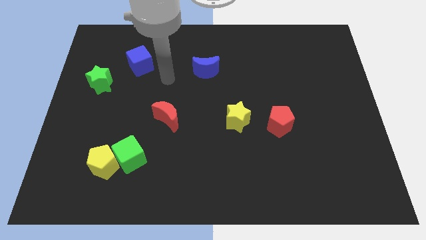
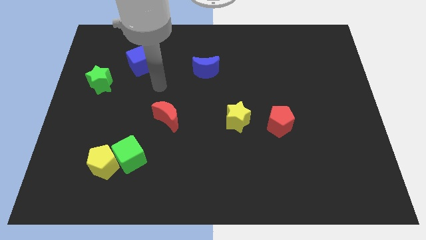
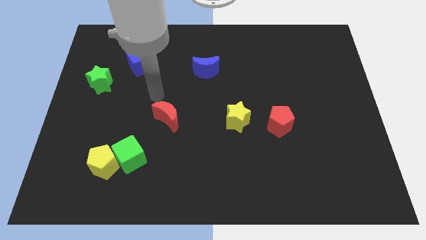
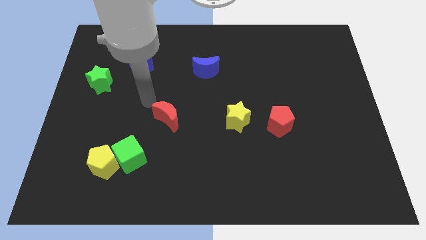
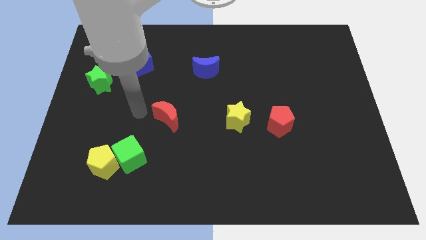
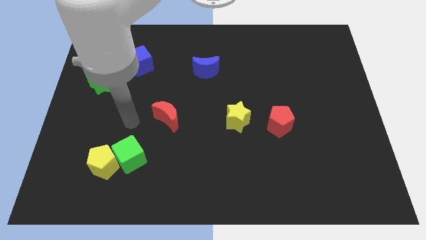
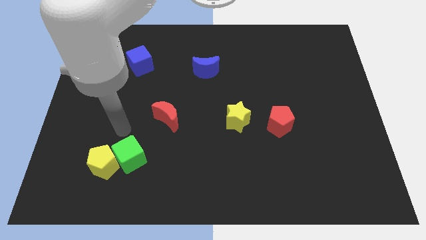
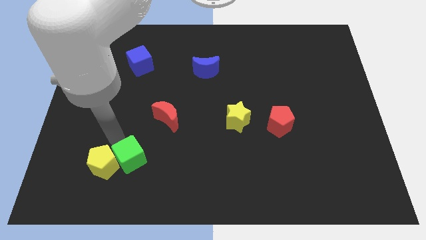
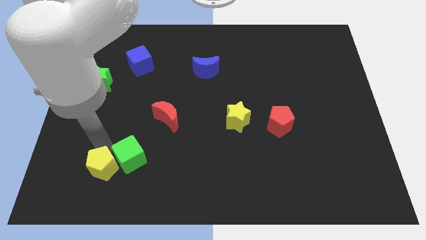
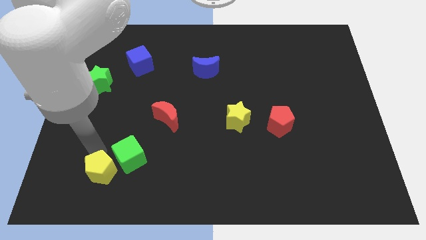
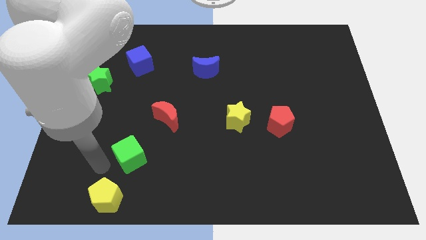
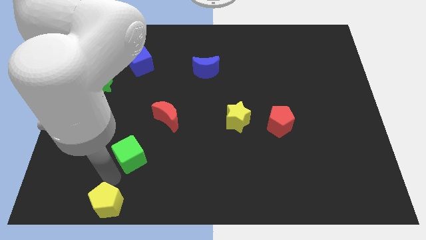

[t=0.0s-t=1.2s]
separate the green cube from the yellow pentagon

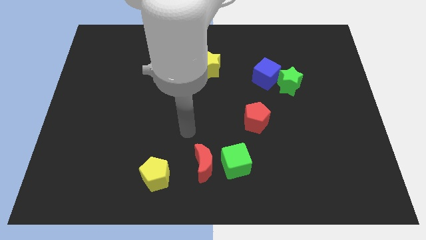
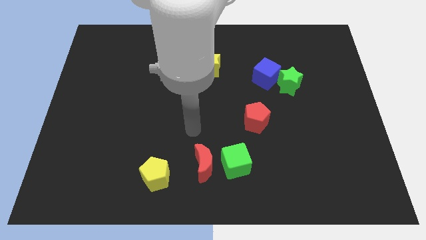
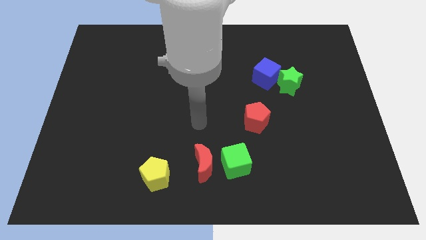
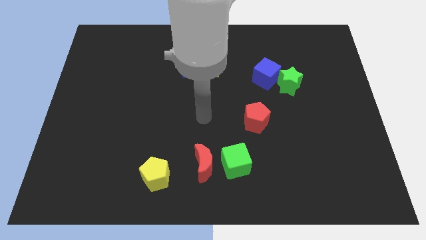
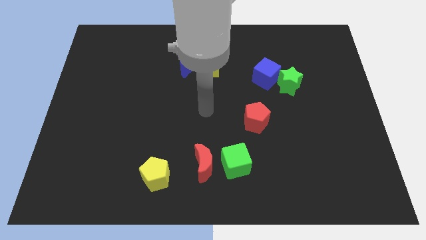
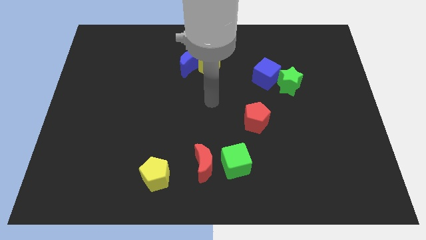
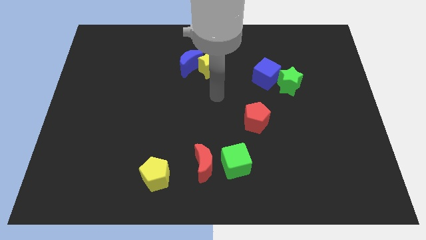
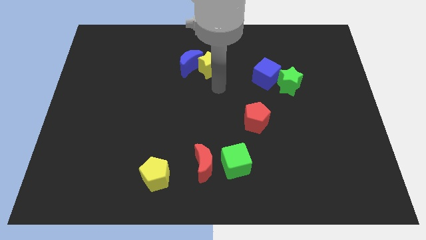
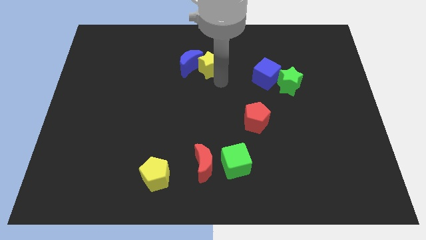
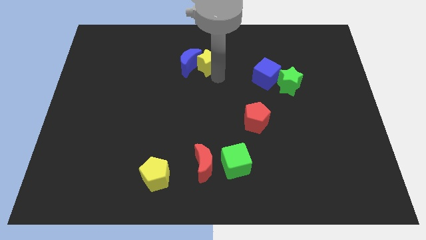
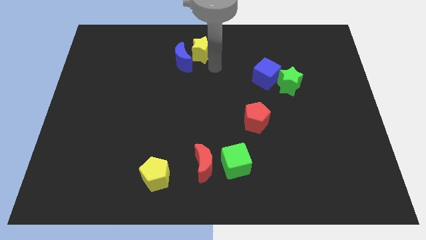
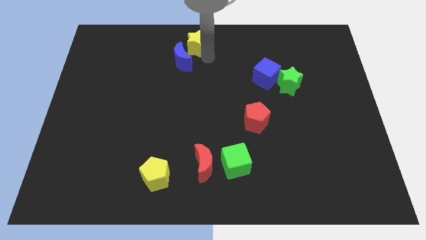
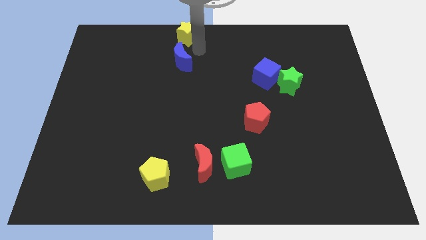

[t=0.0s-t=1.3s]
separate the blue moon from the yellow star

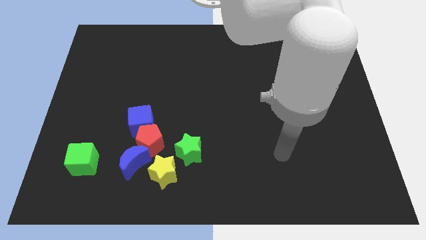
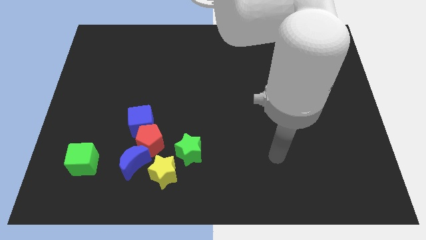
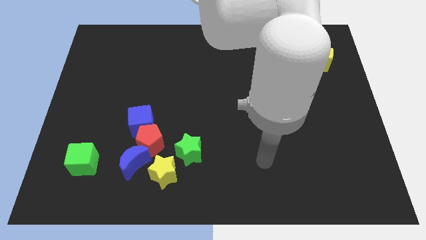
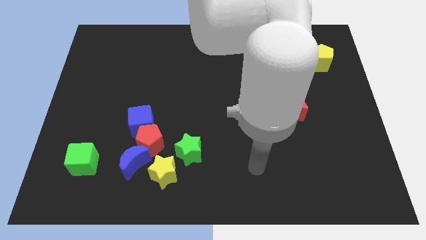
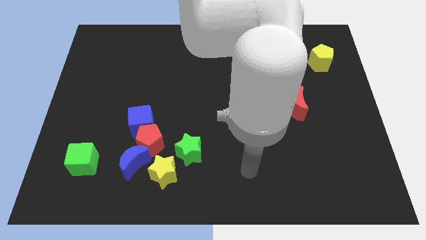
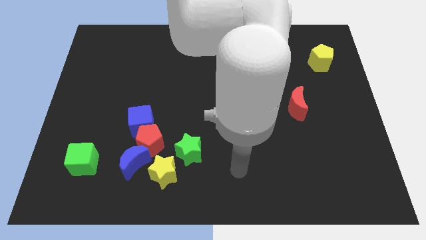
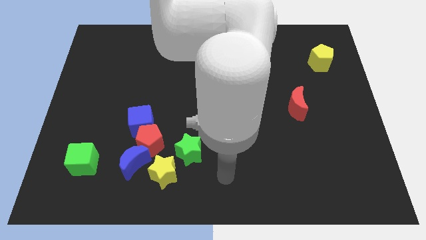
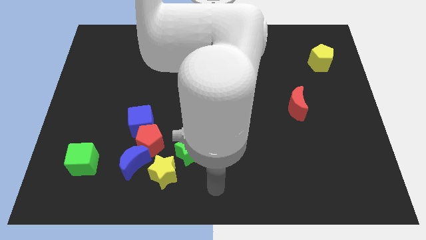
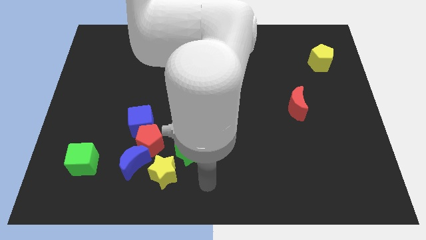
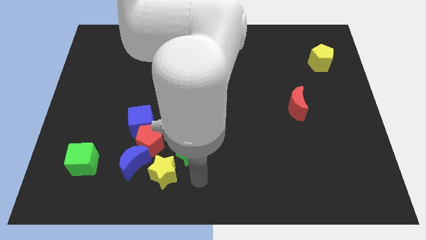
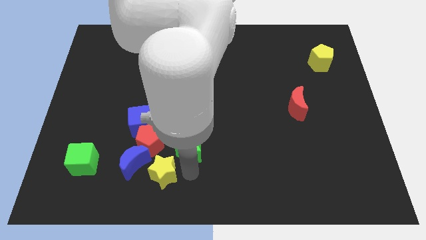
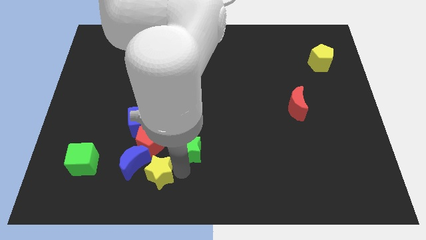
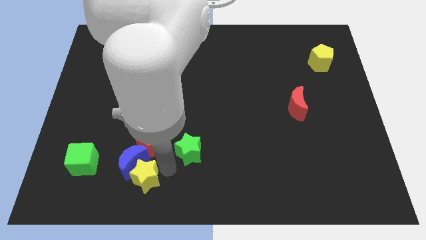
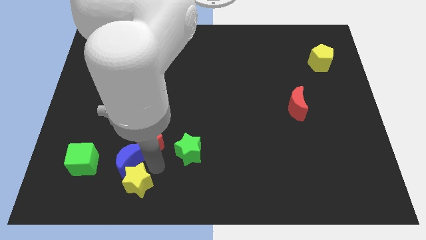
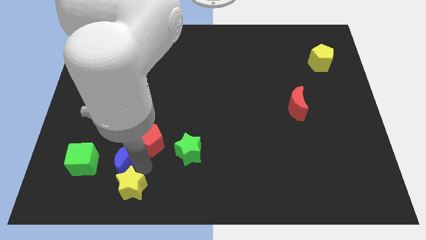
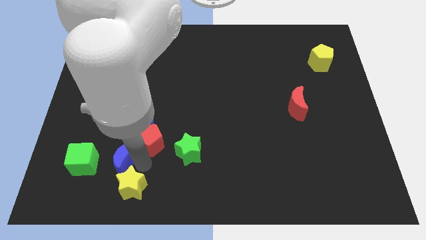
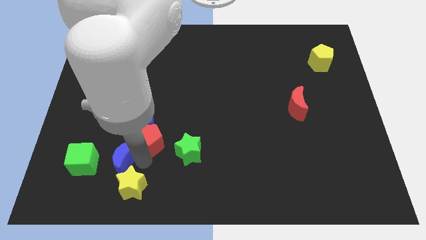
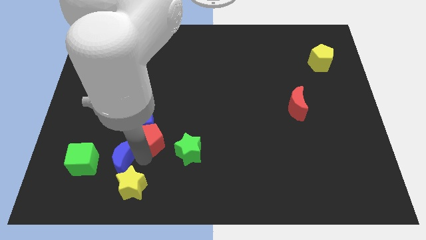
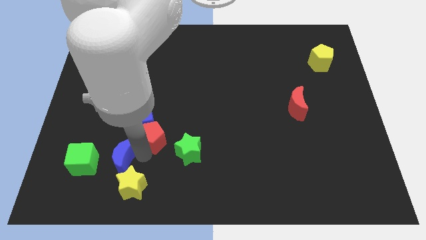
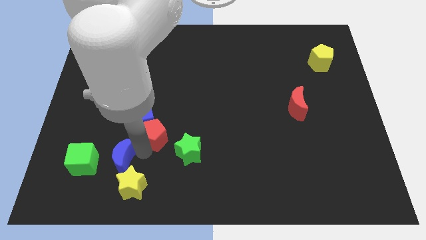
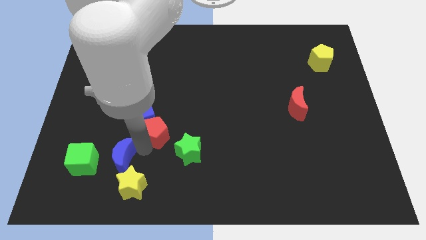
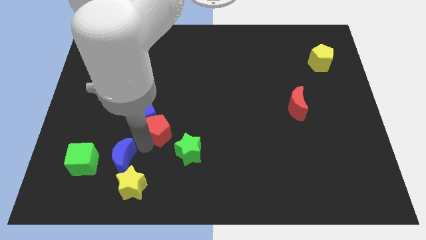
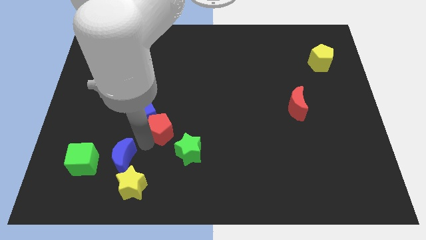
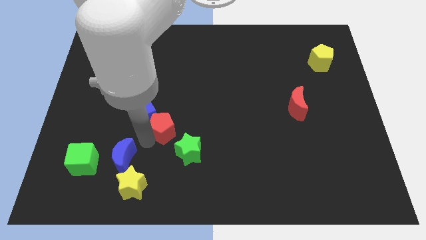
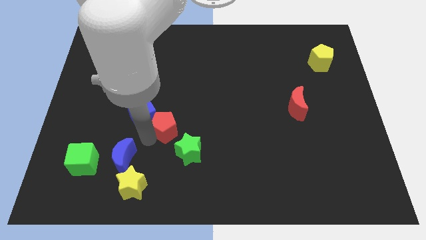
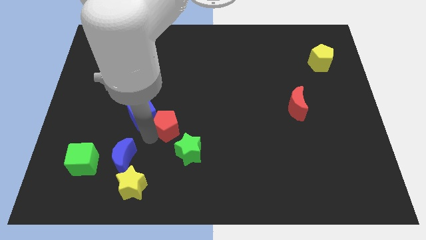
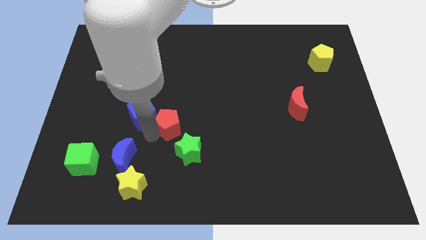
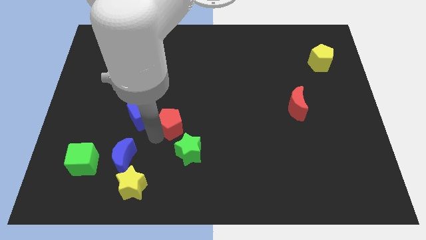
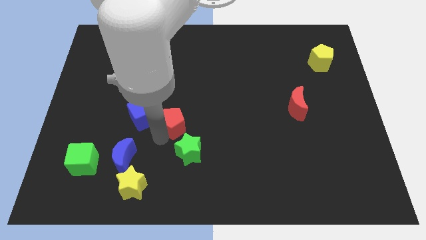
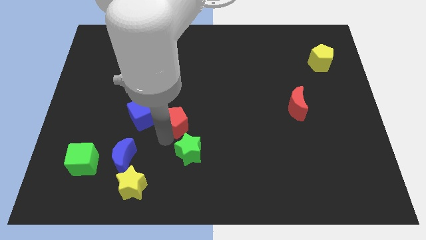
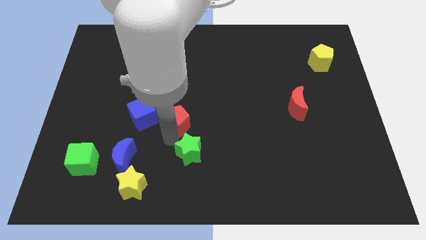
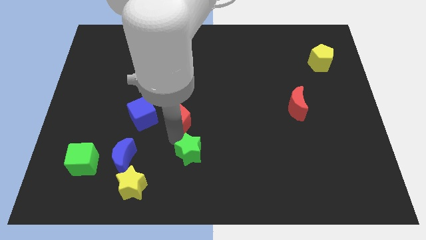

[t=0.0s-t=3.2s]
pull the red pentagon apart from the group of blocks

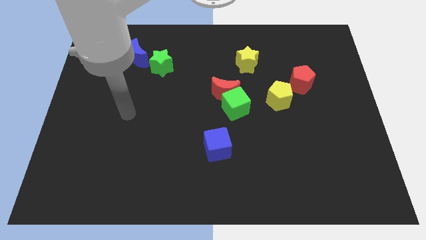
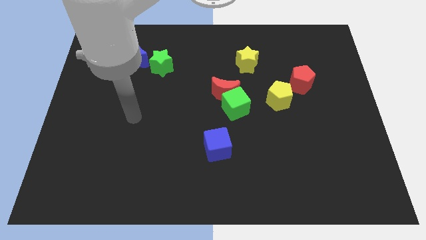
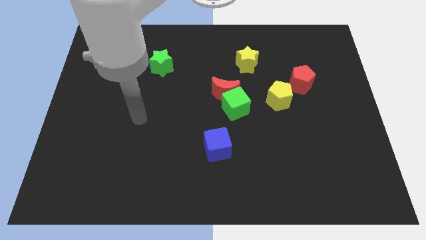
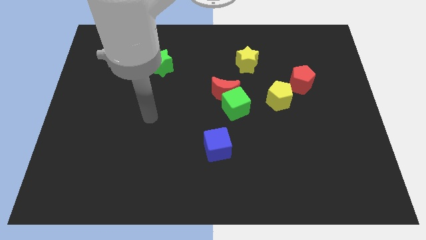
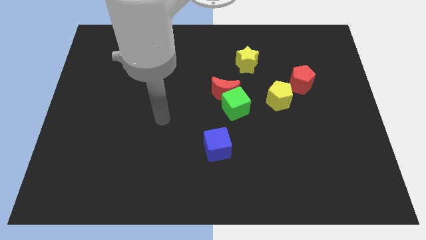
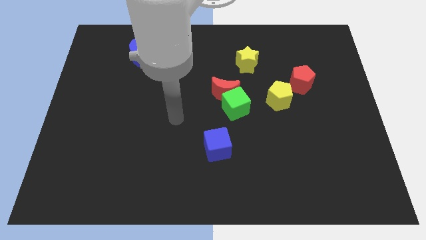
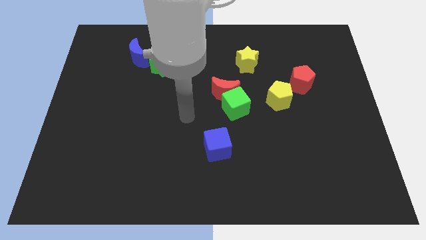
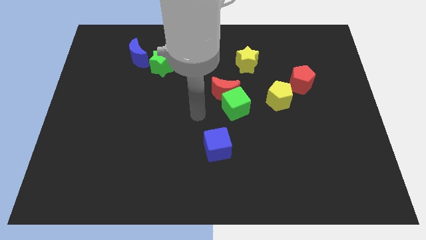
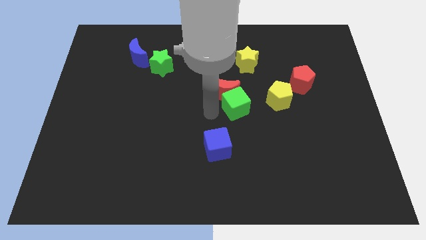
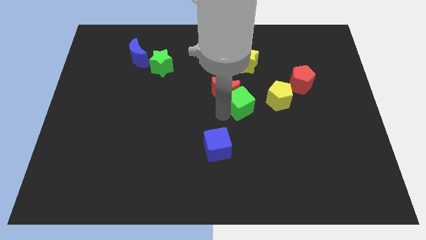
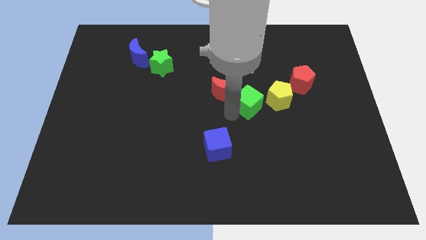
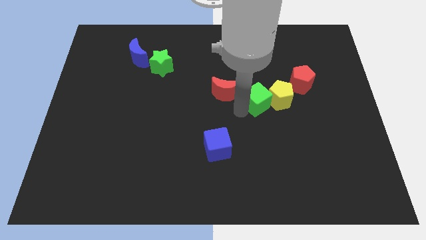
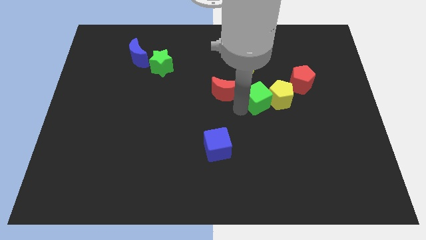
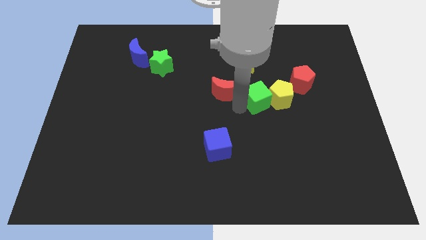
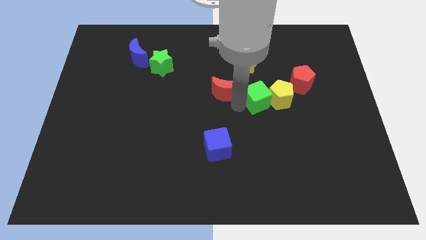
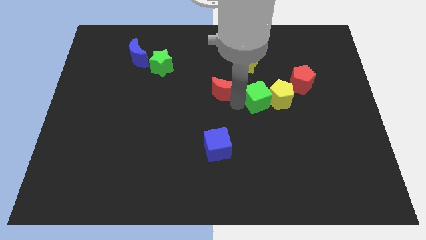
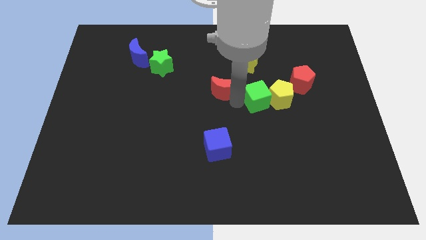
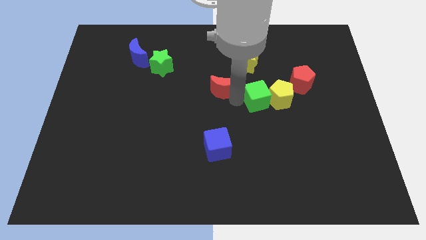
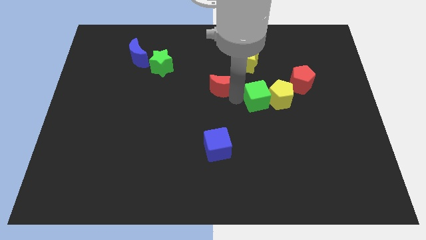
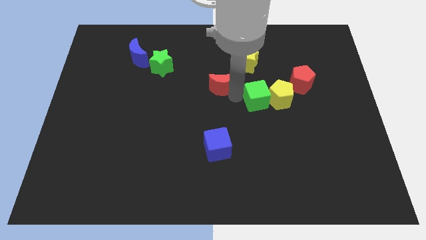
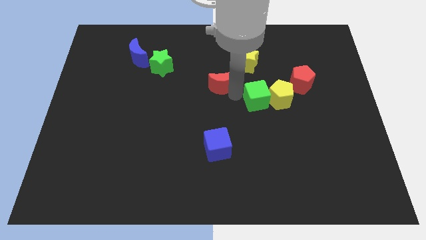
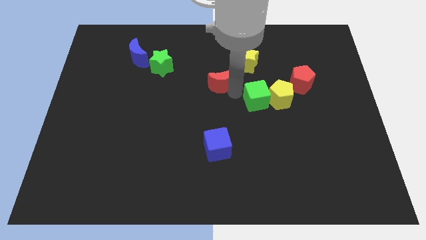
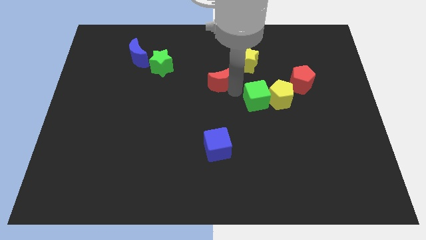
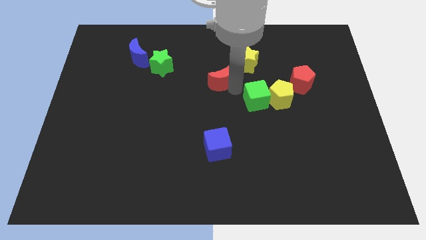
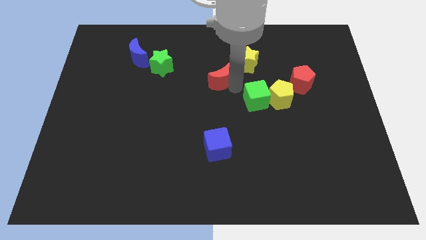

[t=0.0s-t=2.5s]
pull the red moon apart from the green cube

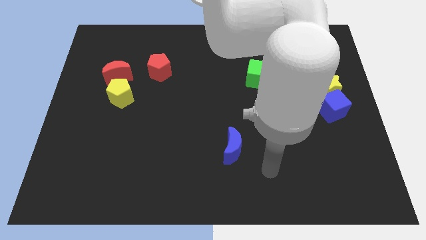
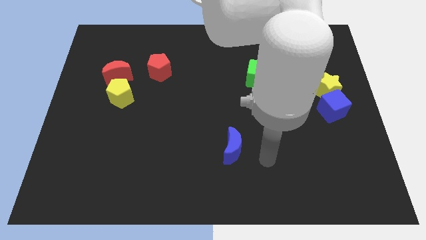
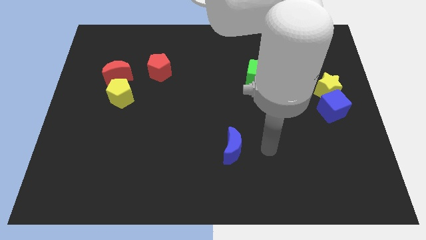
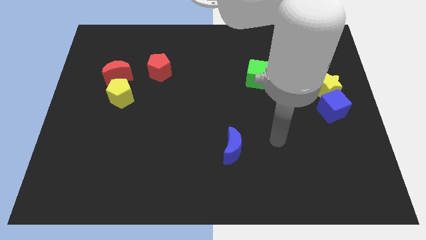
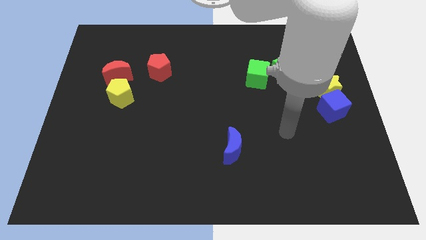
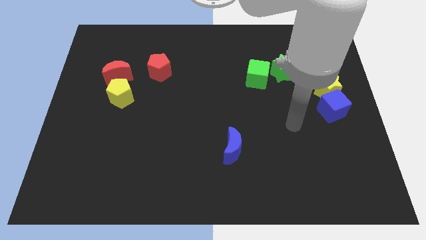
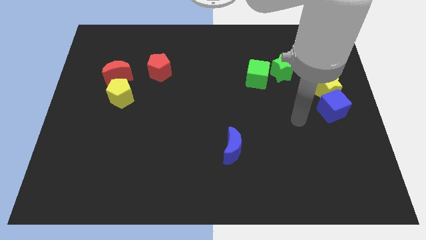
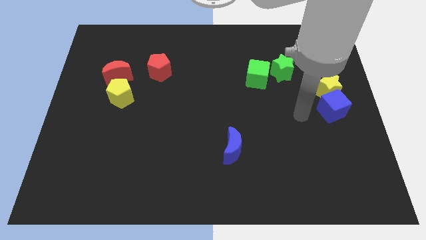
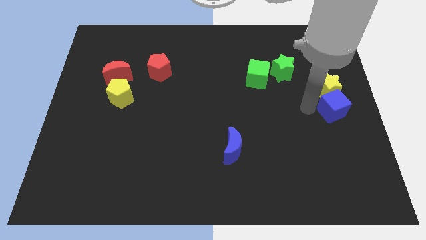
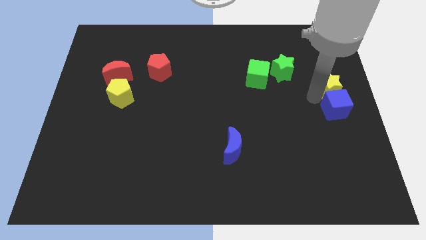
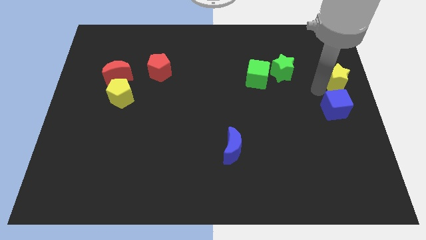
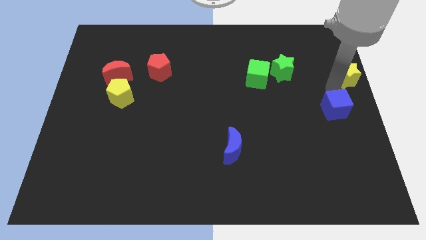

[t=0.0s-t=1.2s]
pull the blue cube apart from the yellow star

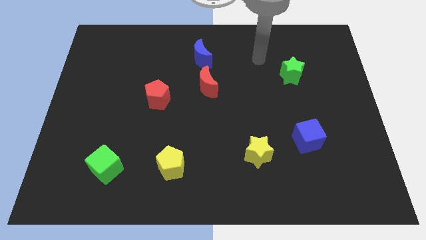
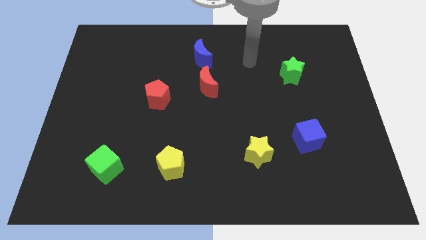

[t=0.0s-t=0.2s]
separate the red moon from the blue moon
